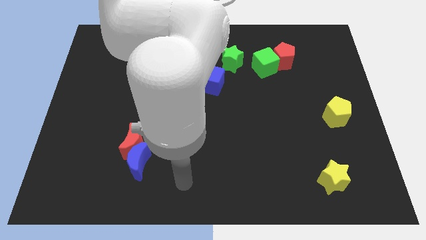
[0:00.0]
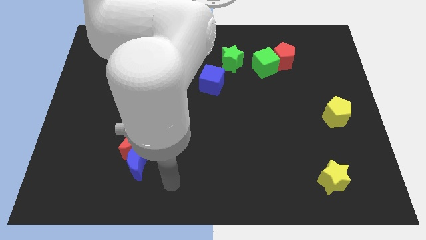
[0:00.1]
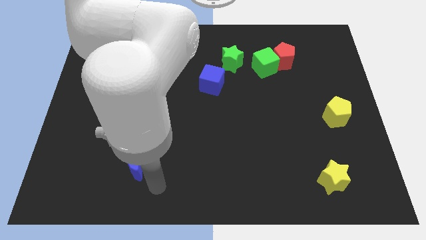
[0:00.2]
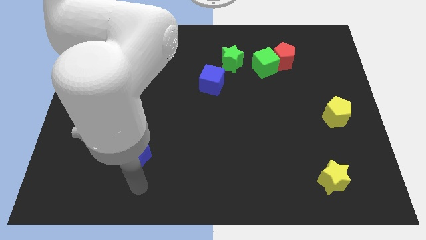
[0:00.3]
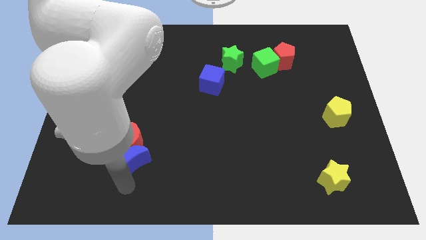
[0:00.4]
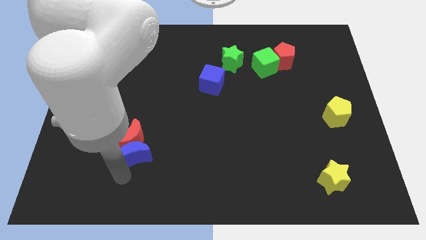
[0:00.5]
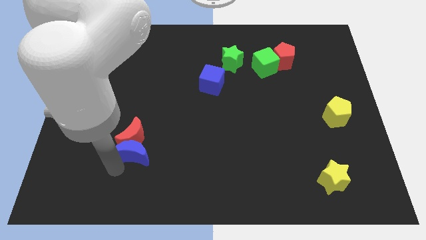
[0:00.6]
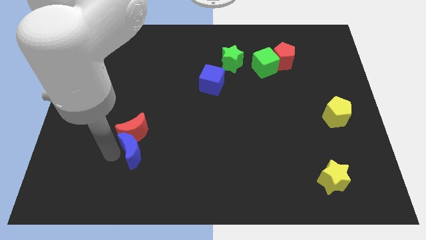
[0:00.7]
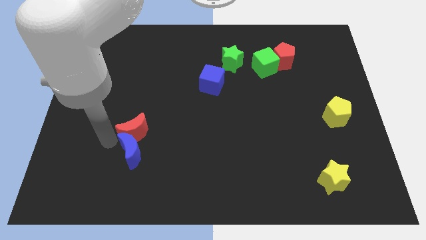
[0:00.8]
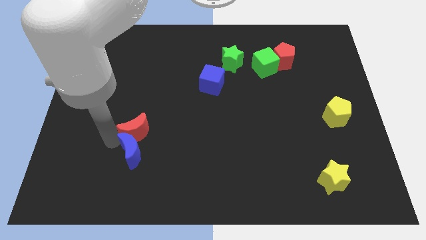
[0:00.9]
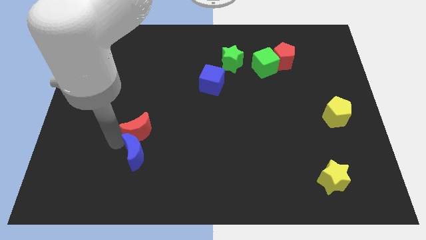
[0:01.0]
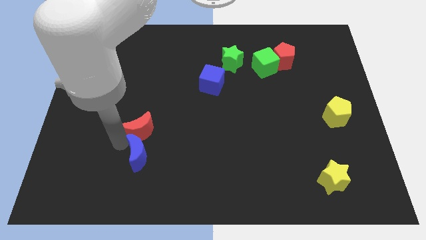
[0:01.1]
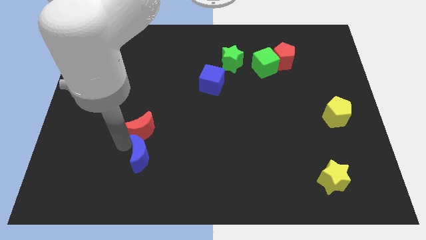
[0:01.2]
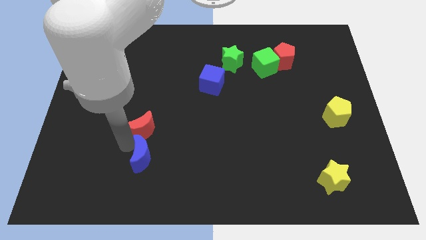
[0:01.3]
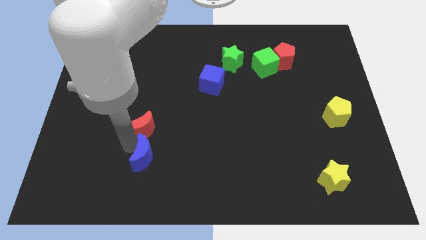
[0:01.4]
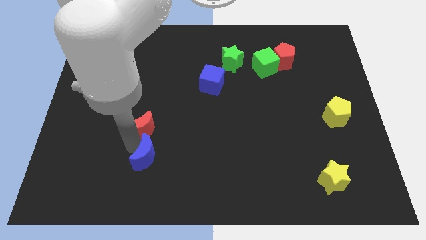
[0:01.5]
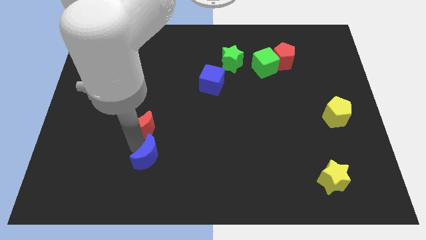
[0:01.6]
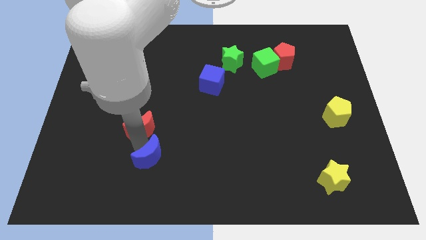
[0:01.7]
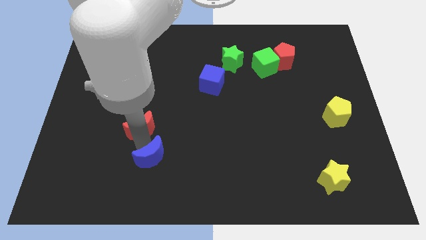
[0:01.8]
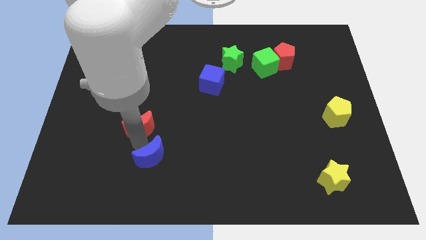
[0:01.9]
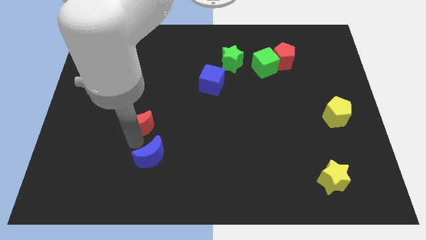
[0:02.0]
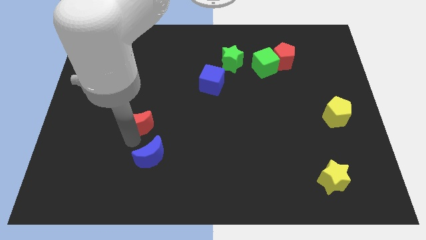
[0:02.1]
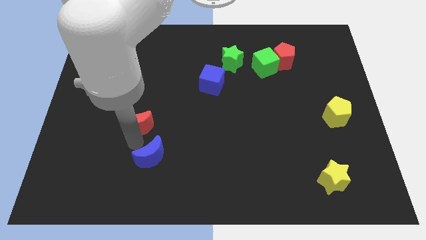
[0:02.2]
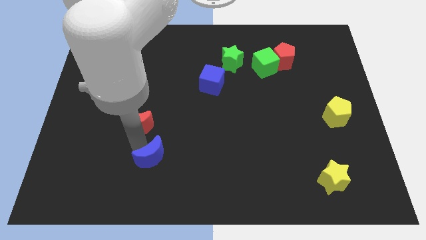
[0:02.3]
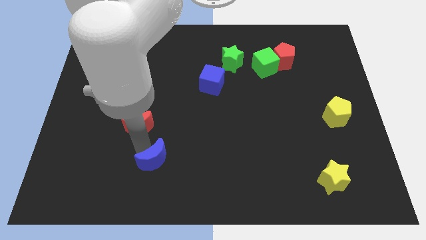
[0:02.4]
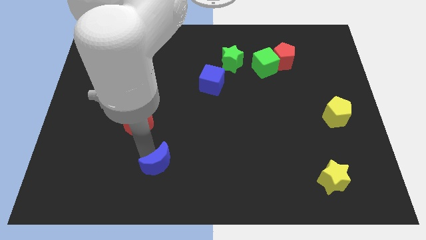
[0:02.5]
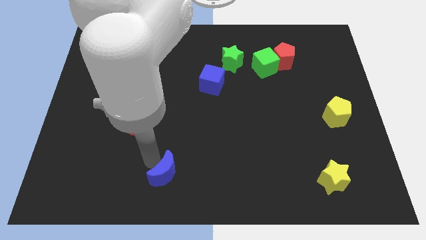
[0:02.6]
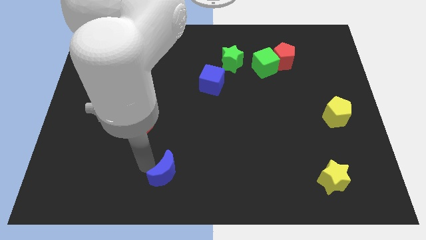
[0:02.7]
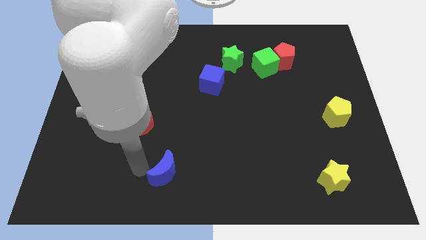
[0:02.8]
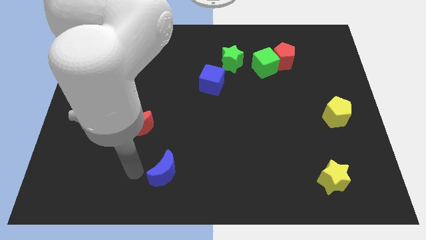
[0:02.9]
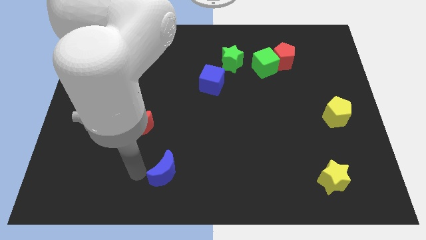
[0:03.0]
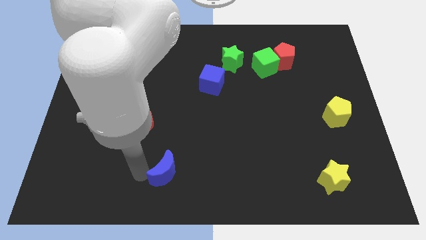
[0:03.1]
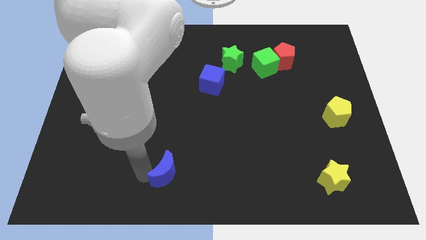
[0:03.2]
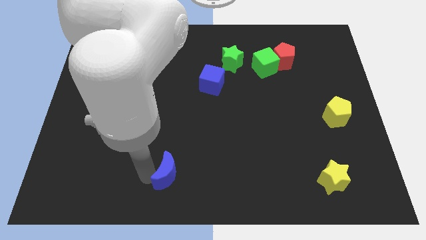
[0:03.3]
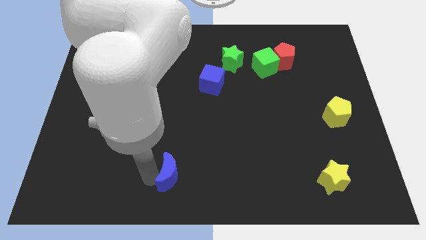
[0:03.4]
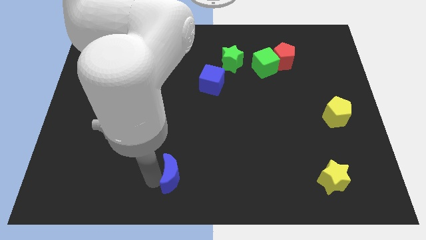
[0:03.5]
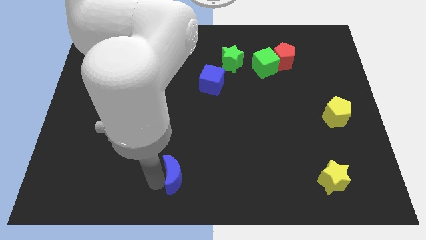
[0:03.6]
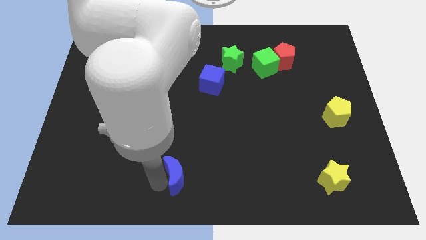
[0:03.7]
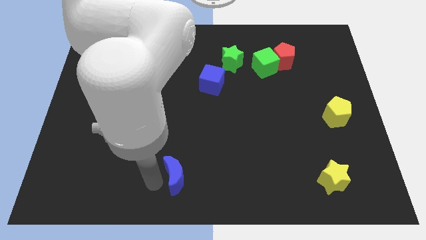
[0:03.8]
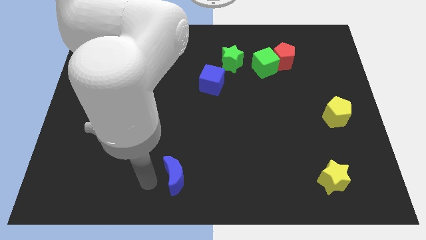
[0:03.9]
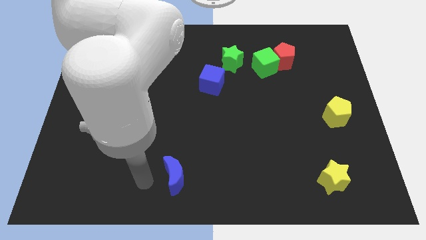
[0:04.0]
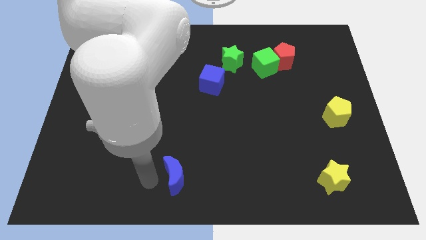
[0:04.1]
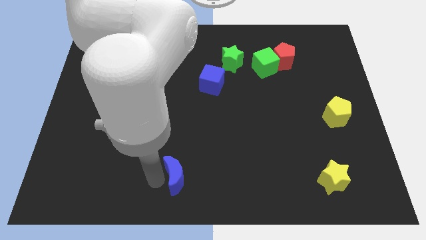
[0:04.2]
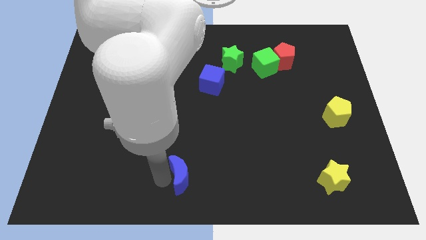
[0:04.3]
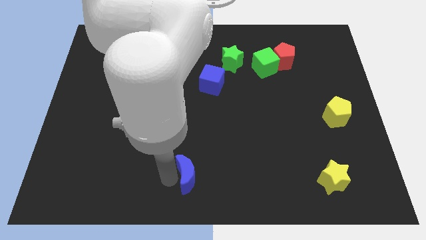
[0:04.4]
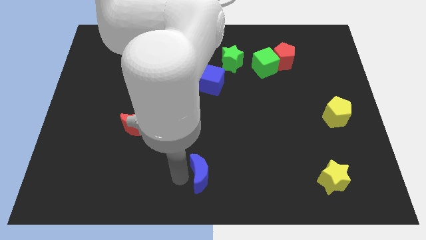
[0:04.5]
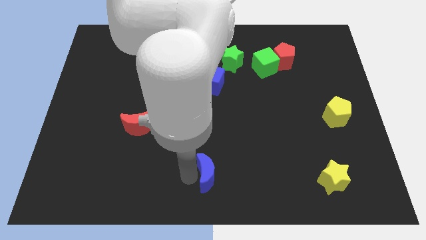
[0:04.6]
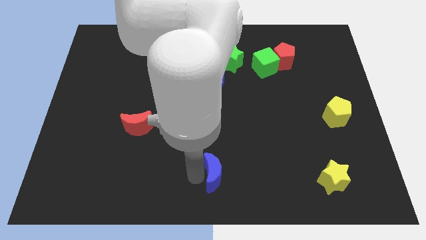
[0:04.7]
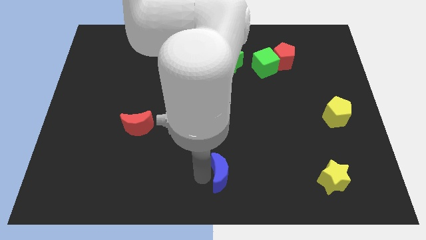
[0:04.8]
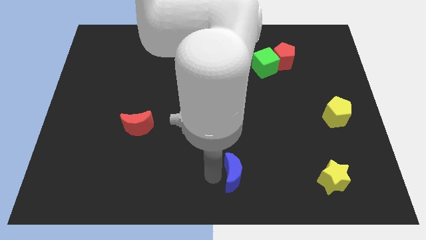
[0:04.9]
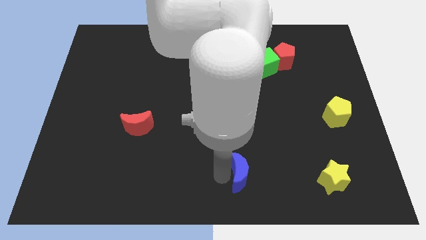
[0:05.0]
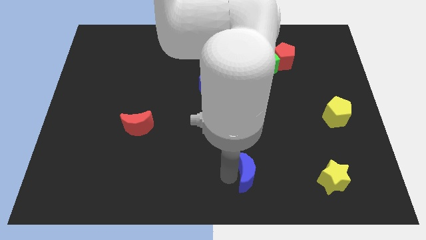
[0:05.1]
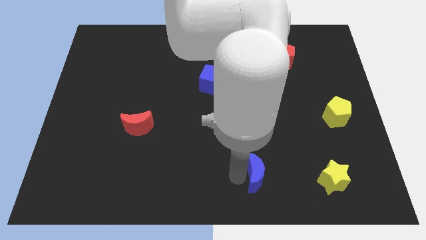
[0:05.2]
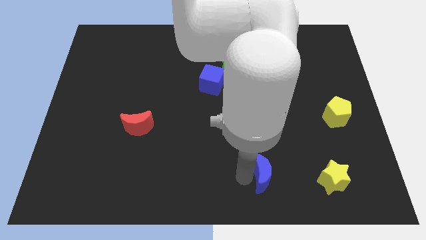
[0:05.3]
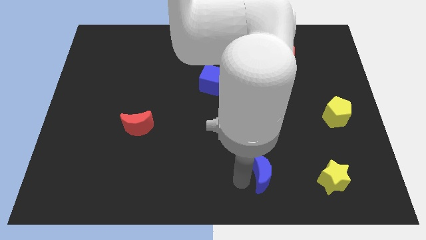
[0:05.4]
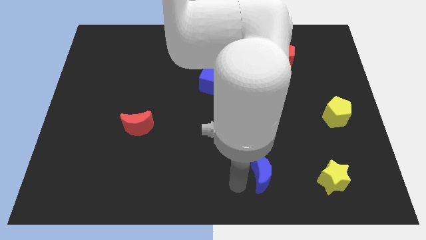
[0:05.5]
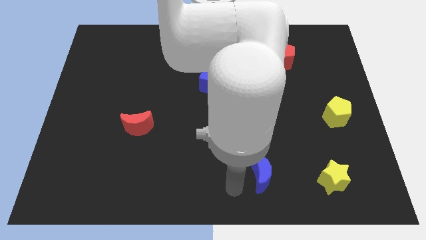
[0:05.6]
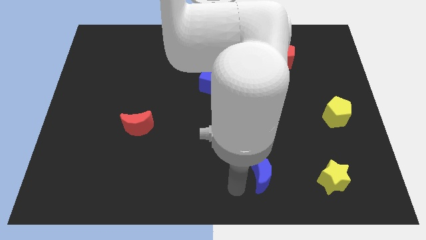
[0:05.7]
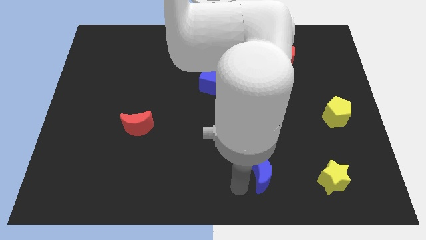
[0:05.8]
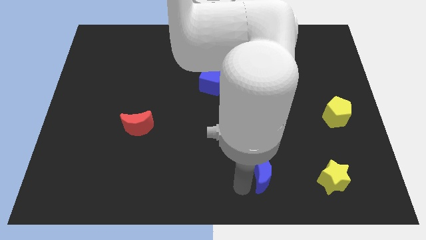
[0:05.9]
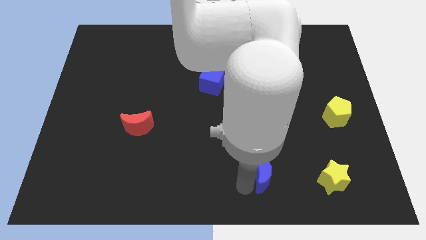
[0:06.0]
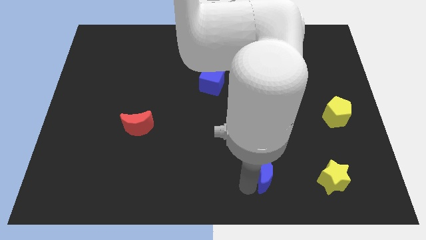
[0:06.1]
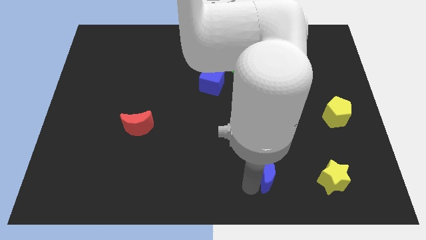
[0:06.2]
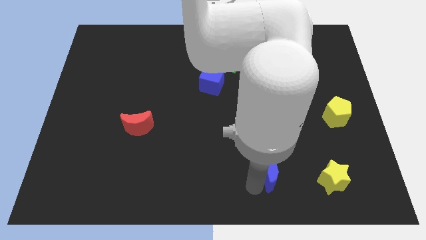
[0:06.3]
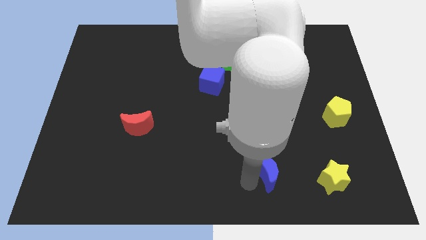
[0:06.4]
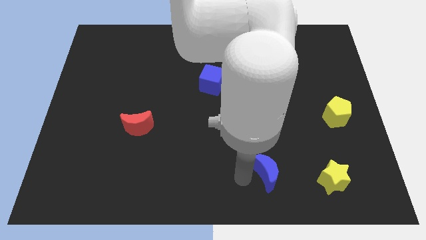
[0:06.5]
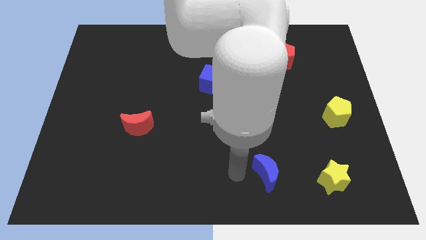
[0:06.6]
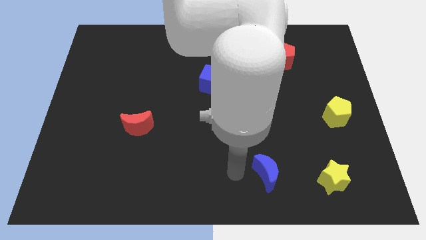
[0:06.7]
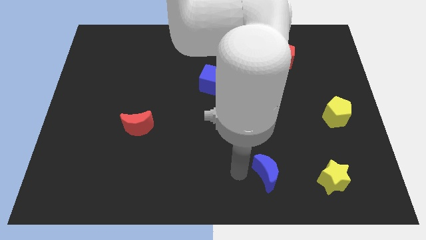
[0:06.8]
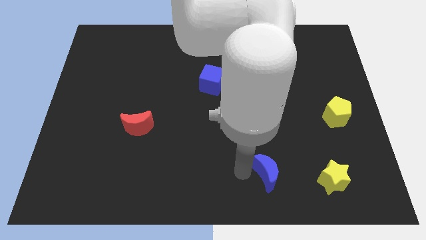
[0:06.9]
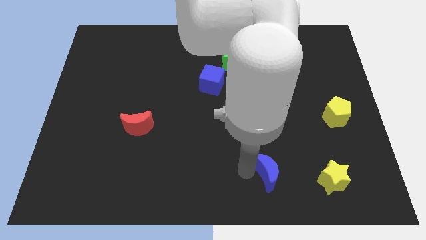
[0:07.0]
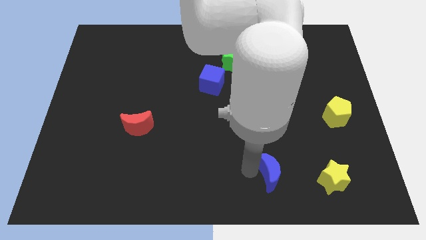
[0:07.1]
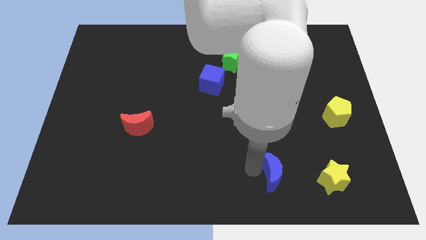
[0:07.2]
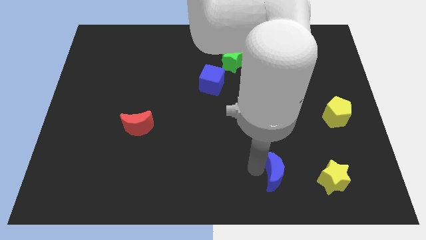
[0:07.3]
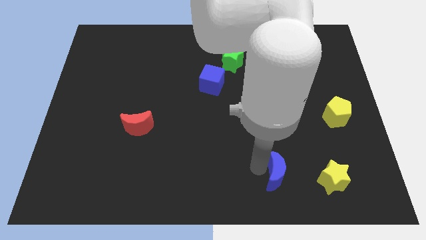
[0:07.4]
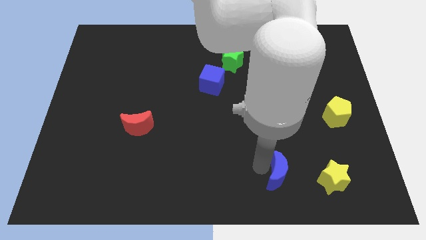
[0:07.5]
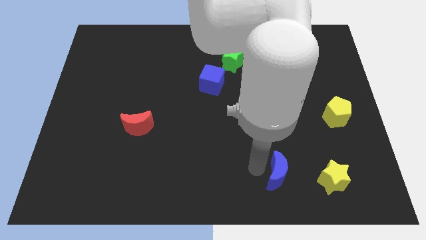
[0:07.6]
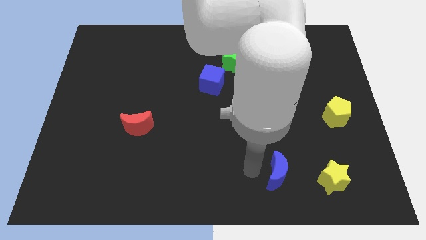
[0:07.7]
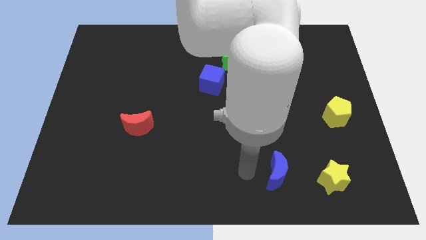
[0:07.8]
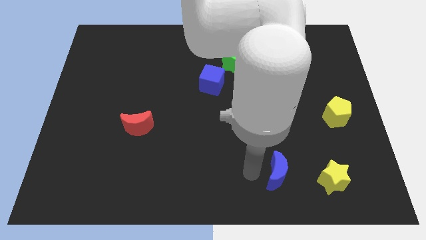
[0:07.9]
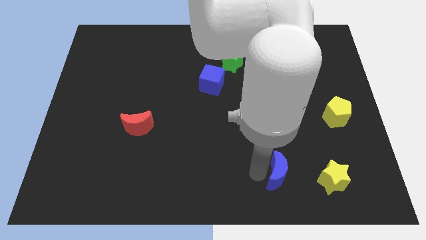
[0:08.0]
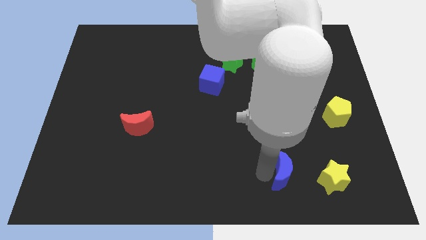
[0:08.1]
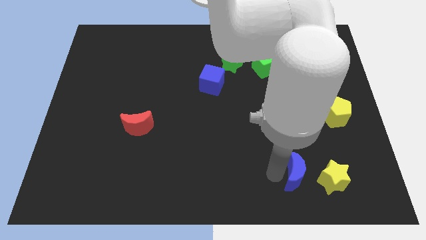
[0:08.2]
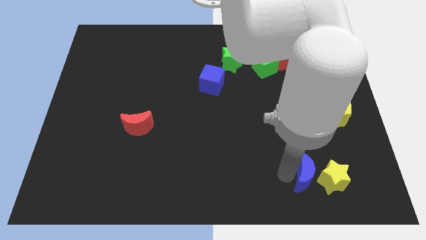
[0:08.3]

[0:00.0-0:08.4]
move the blue moon next to the yellow star
